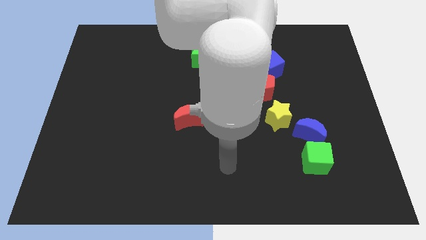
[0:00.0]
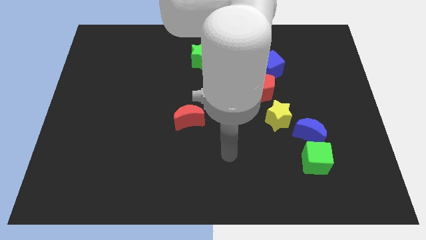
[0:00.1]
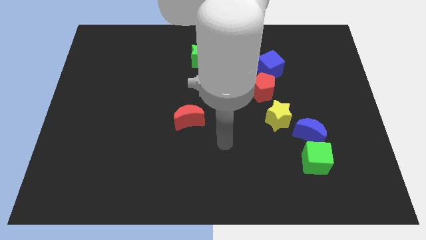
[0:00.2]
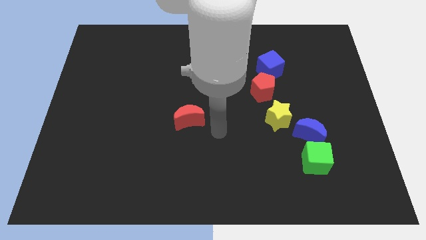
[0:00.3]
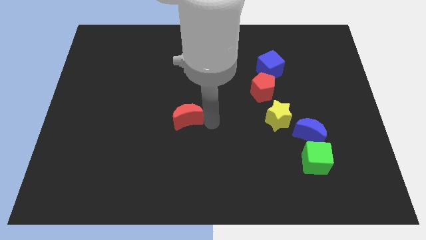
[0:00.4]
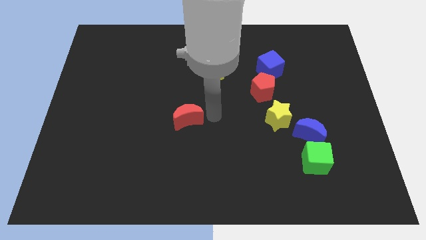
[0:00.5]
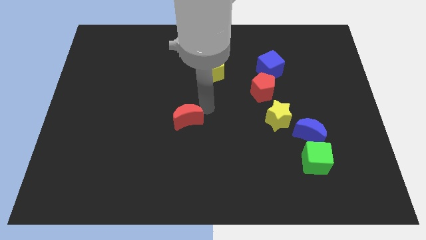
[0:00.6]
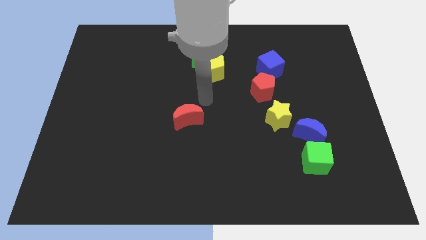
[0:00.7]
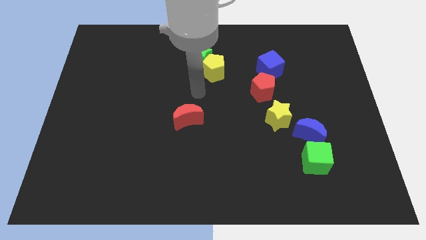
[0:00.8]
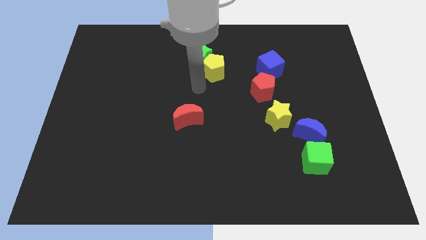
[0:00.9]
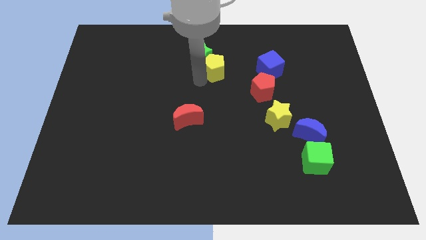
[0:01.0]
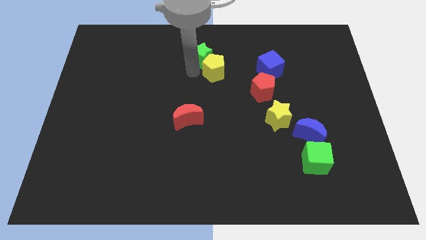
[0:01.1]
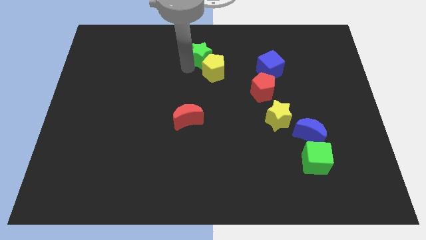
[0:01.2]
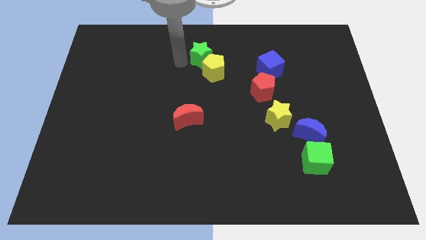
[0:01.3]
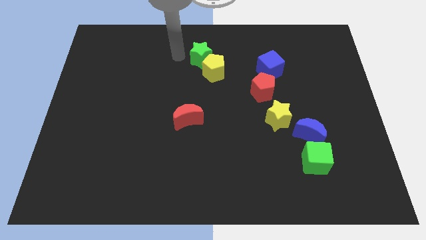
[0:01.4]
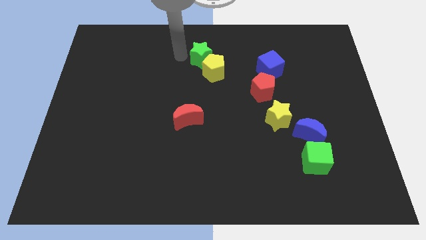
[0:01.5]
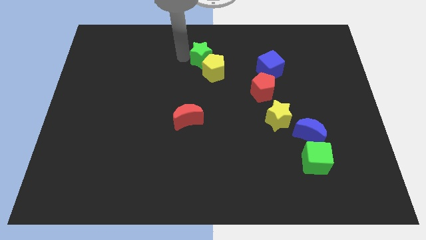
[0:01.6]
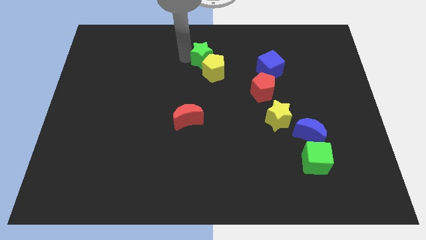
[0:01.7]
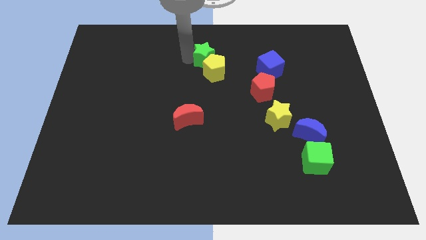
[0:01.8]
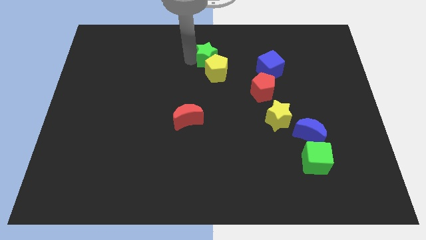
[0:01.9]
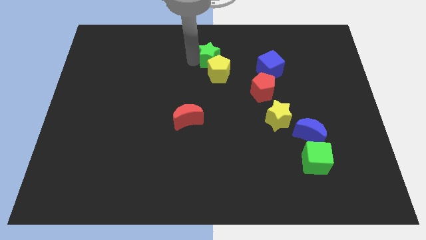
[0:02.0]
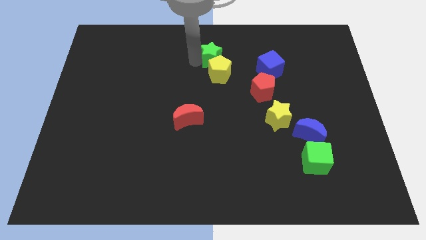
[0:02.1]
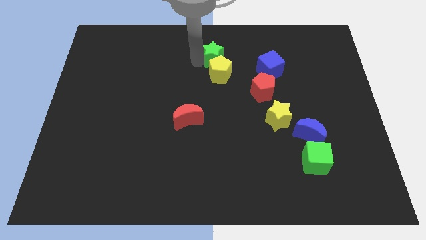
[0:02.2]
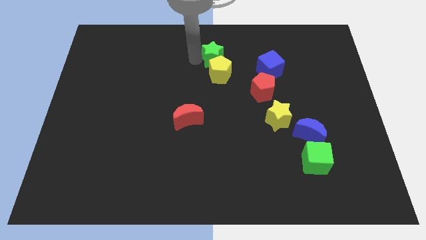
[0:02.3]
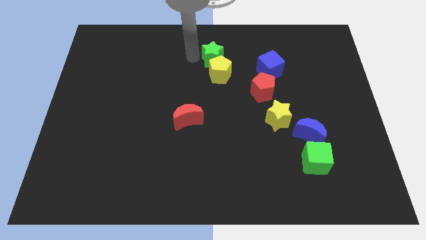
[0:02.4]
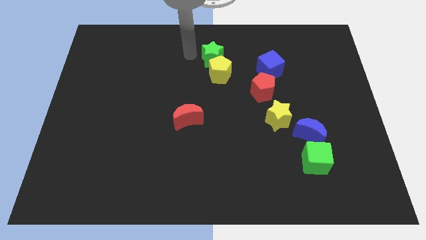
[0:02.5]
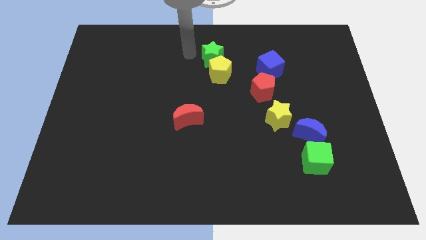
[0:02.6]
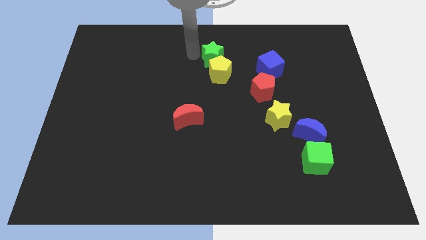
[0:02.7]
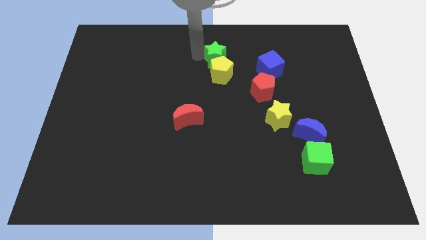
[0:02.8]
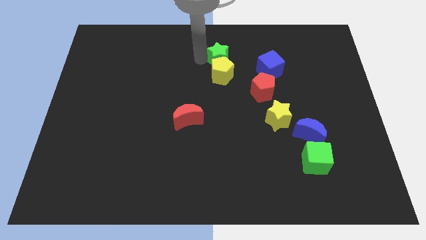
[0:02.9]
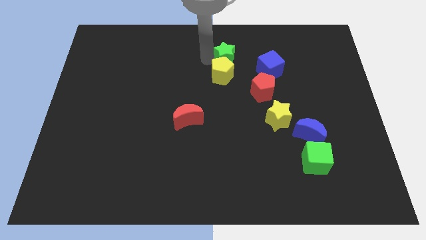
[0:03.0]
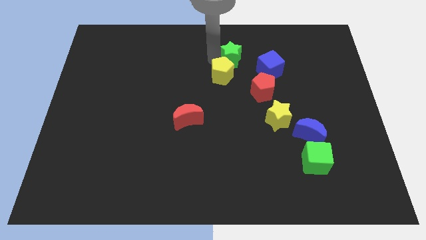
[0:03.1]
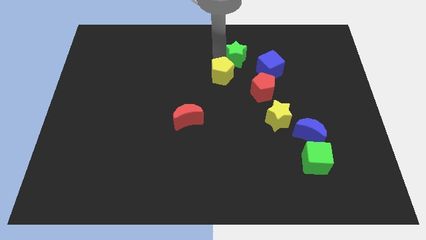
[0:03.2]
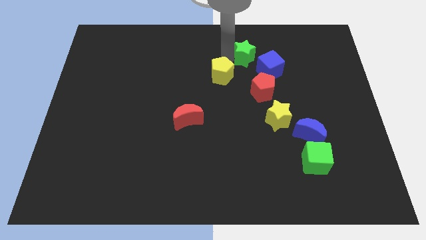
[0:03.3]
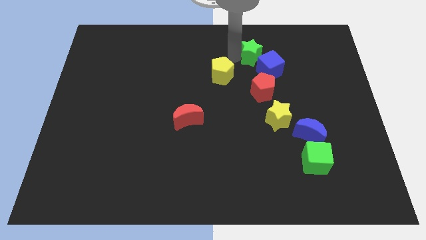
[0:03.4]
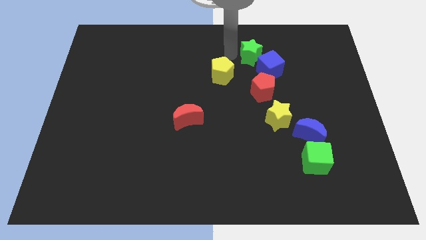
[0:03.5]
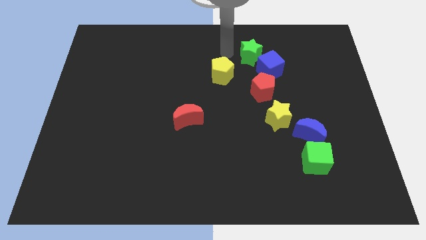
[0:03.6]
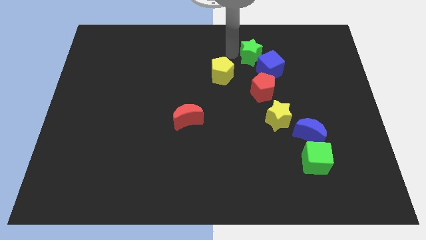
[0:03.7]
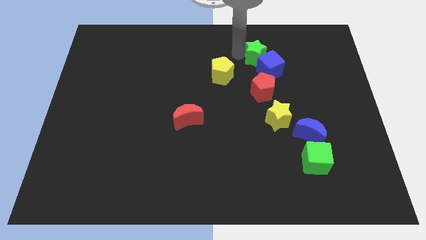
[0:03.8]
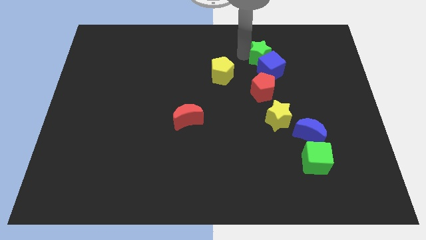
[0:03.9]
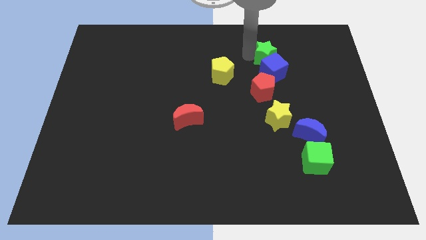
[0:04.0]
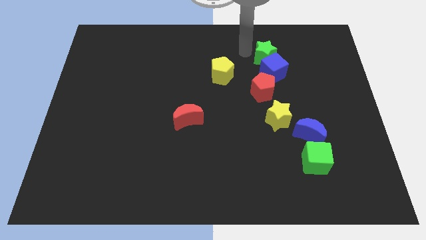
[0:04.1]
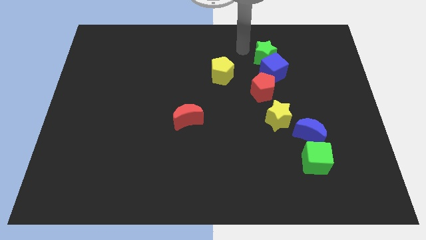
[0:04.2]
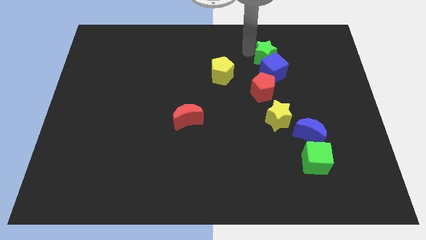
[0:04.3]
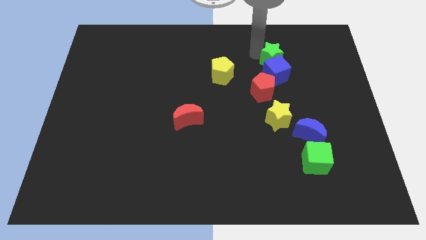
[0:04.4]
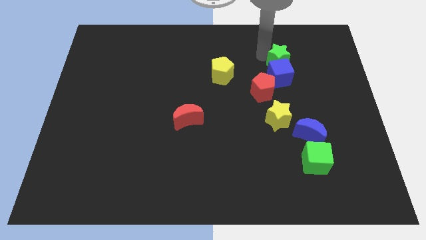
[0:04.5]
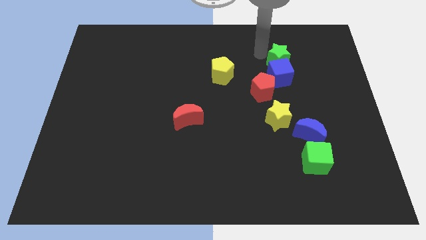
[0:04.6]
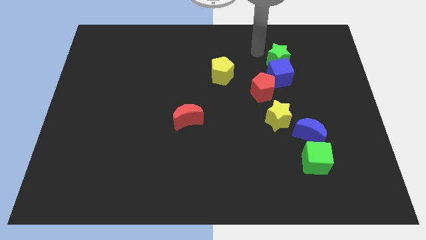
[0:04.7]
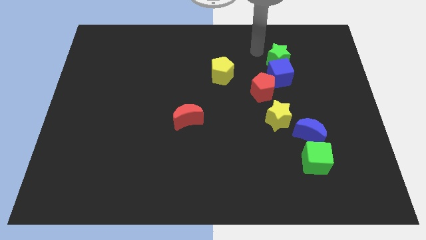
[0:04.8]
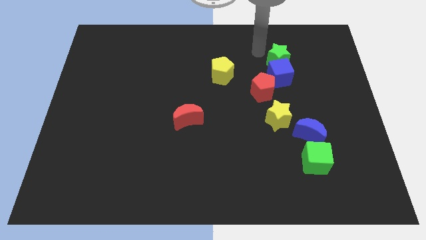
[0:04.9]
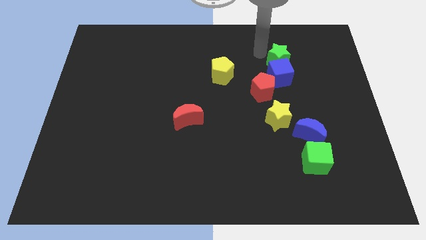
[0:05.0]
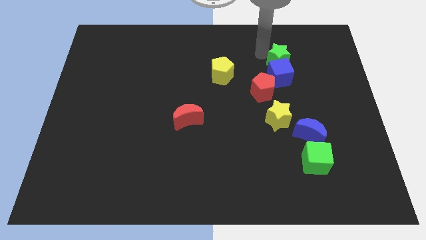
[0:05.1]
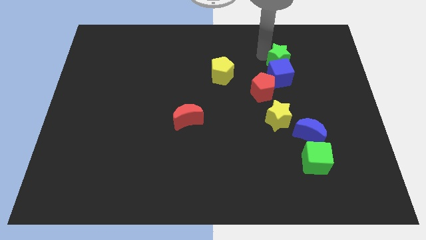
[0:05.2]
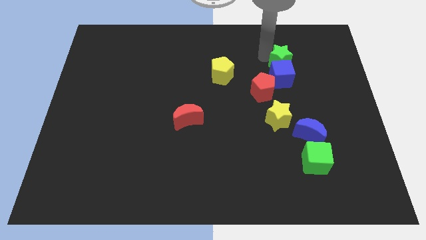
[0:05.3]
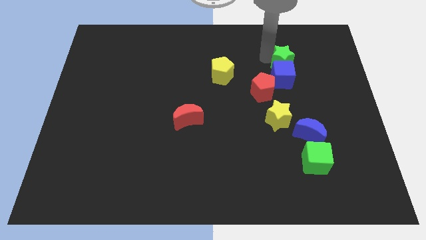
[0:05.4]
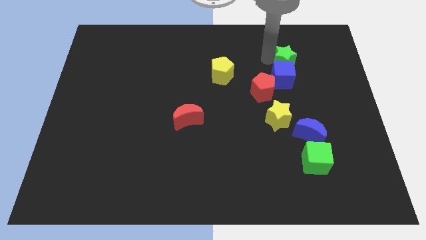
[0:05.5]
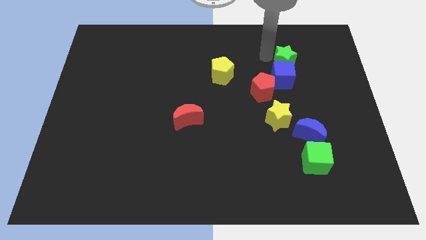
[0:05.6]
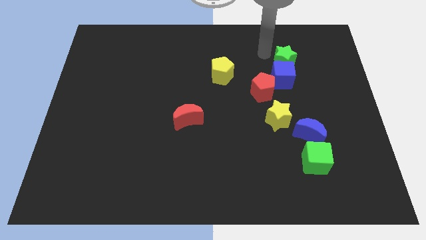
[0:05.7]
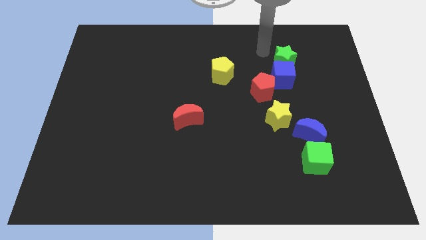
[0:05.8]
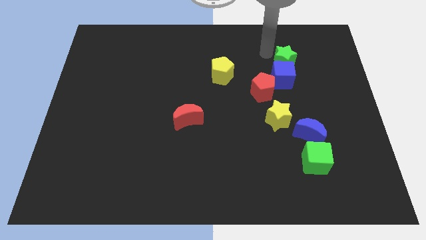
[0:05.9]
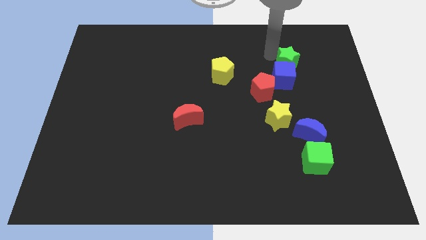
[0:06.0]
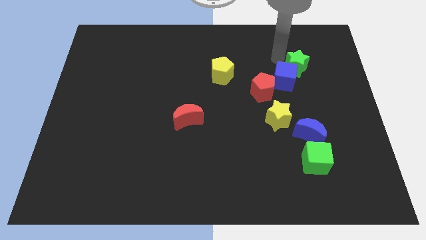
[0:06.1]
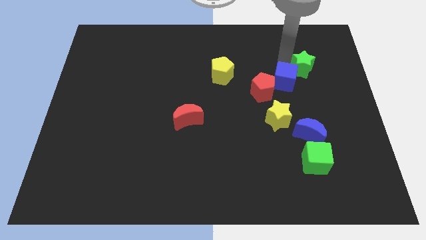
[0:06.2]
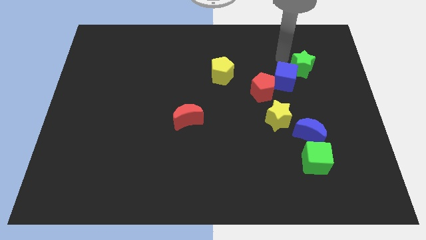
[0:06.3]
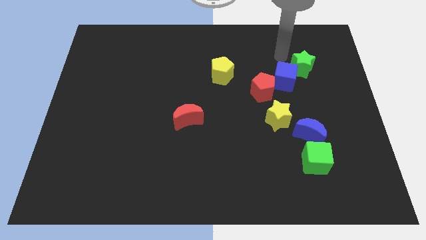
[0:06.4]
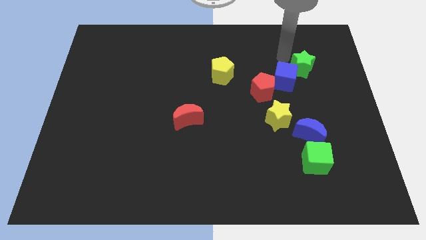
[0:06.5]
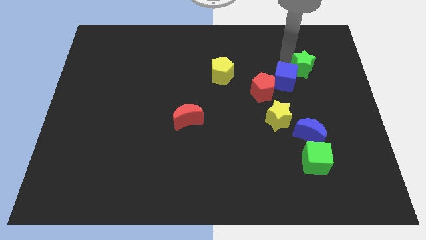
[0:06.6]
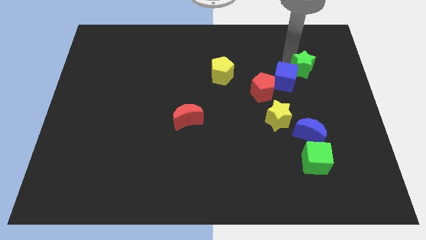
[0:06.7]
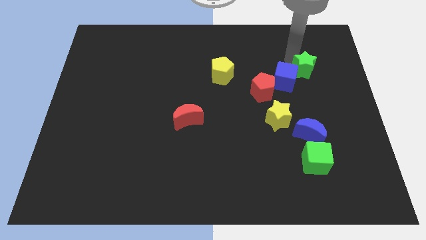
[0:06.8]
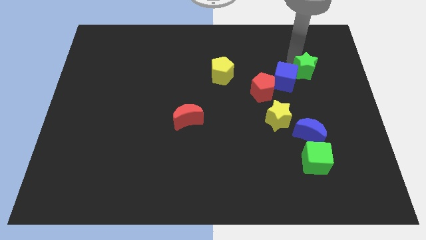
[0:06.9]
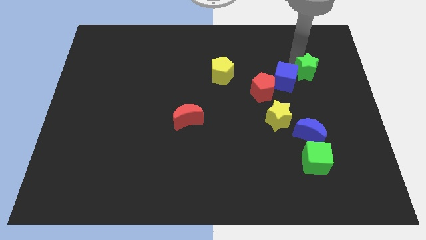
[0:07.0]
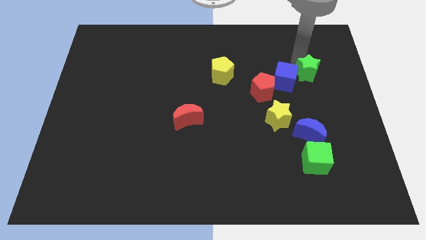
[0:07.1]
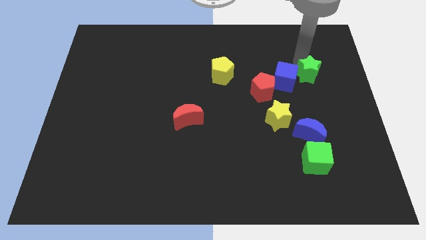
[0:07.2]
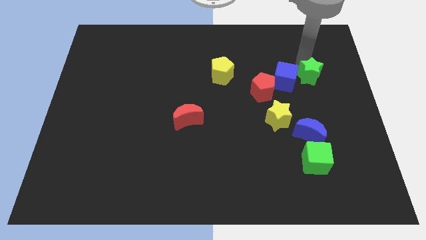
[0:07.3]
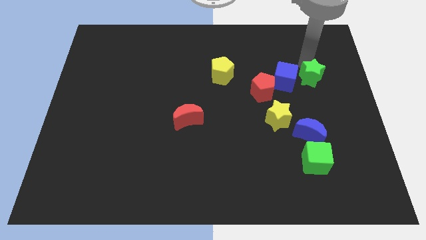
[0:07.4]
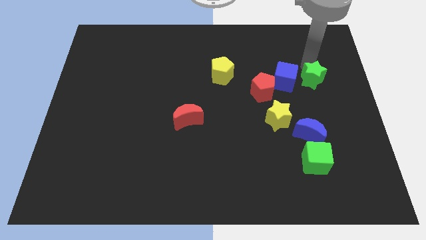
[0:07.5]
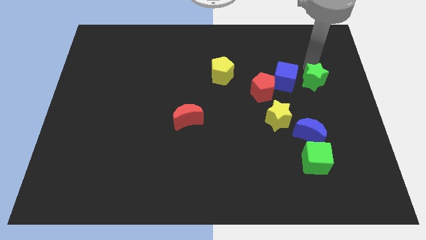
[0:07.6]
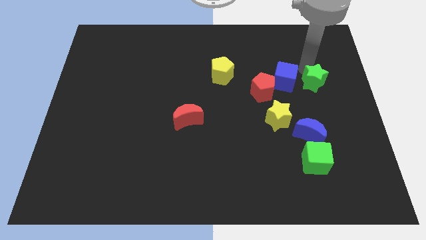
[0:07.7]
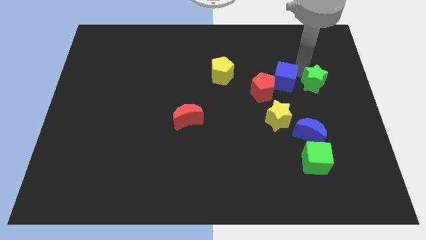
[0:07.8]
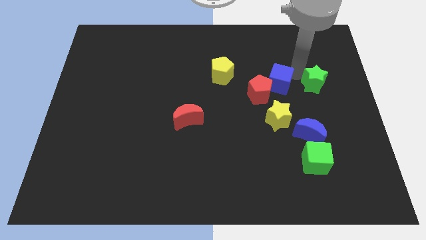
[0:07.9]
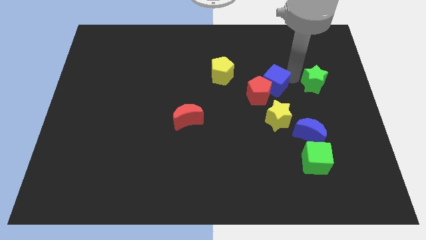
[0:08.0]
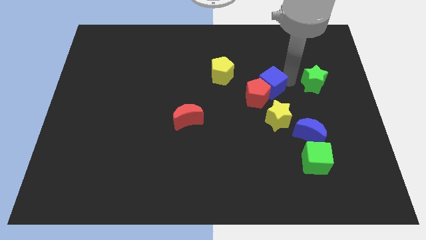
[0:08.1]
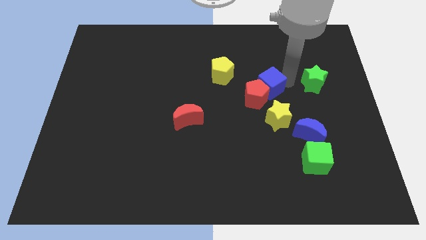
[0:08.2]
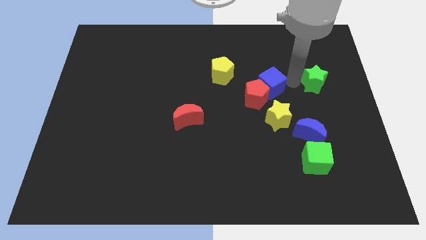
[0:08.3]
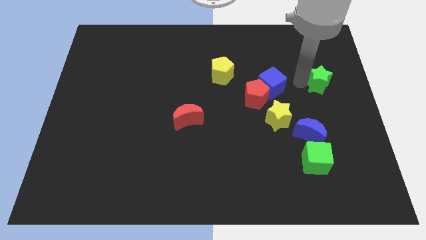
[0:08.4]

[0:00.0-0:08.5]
push the green star to the right side of the board
